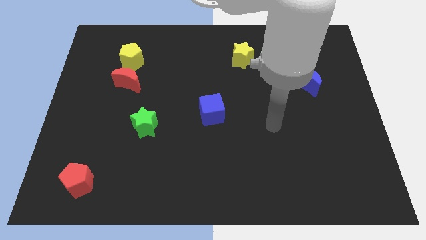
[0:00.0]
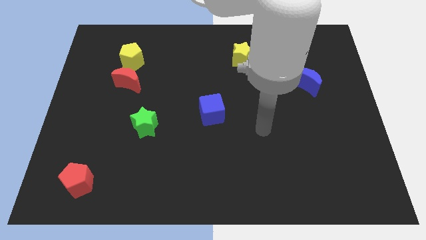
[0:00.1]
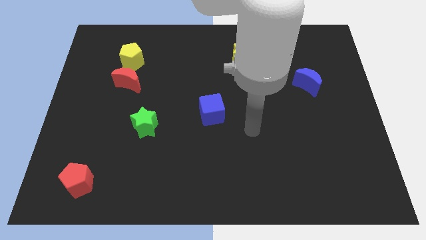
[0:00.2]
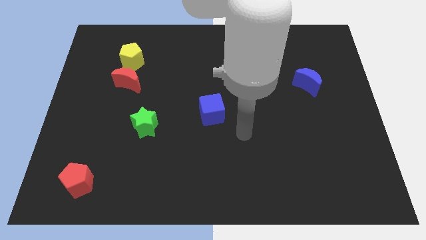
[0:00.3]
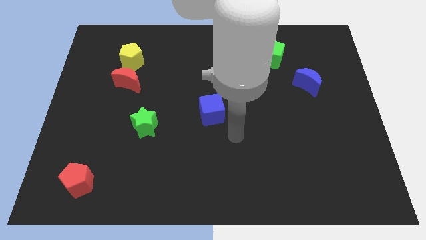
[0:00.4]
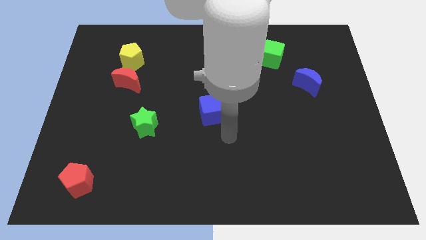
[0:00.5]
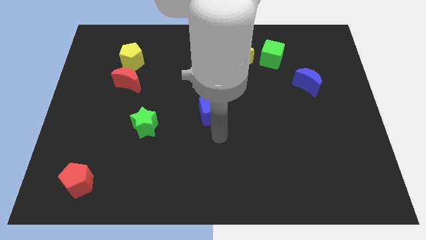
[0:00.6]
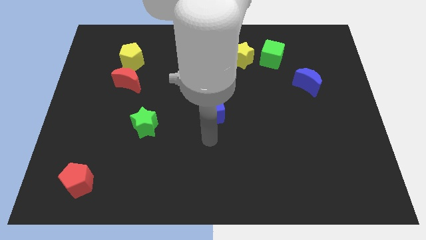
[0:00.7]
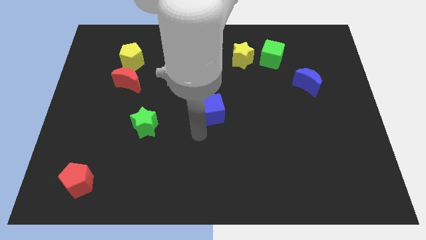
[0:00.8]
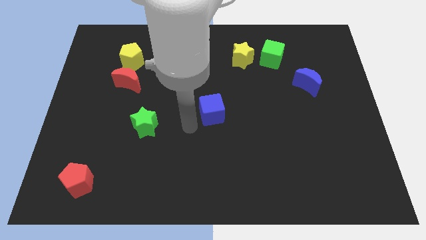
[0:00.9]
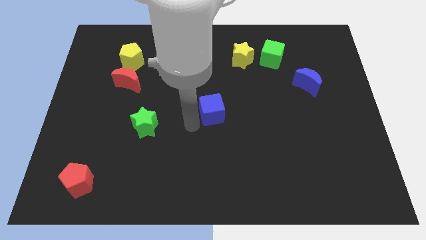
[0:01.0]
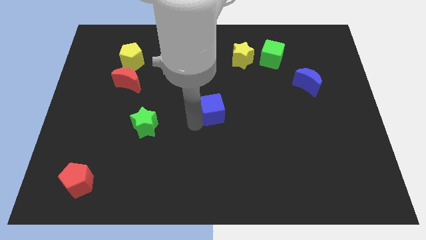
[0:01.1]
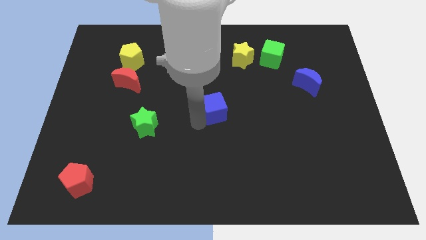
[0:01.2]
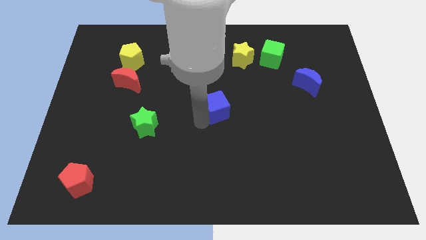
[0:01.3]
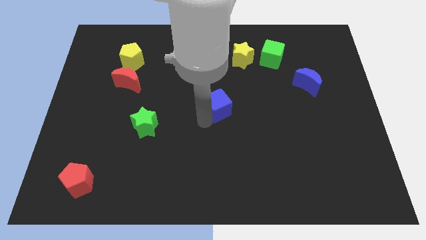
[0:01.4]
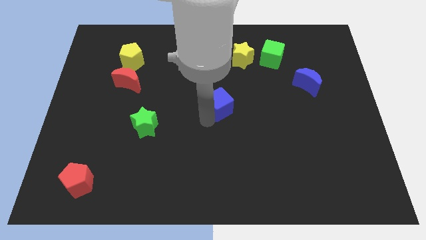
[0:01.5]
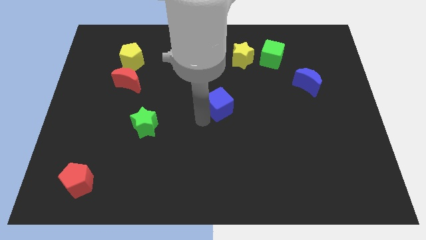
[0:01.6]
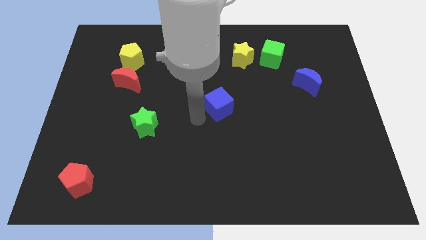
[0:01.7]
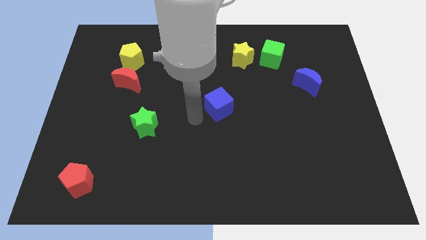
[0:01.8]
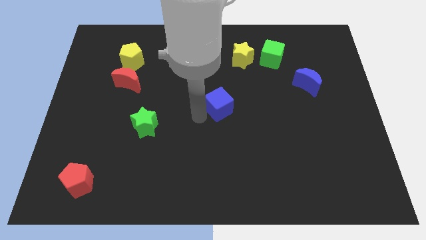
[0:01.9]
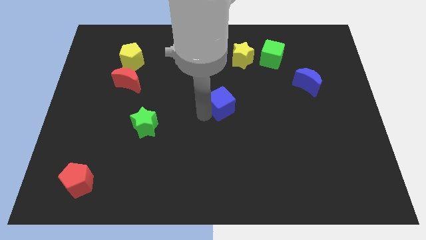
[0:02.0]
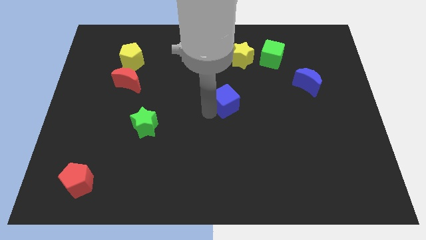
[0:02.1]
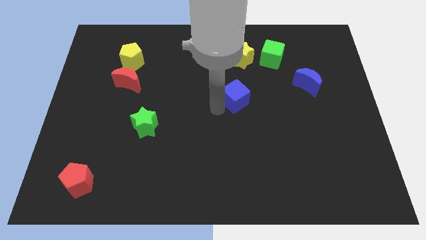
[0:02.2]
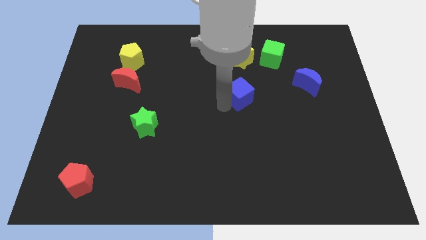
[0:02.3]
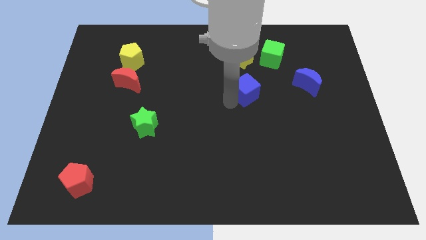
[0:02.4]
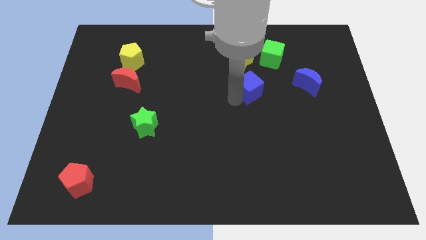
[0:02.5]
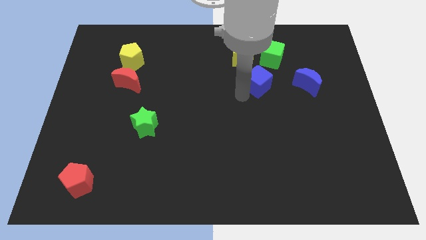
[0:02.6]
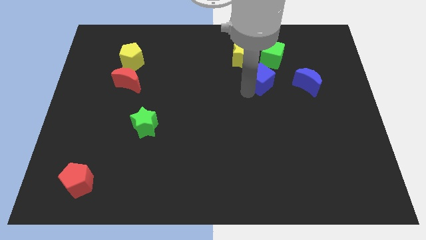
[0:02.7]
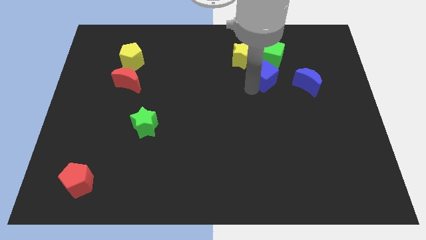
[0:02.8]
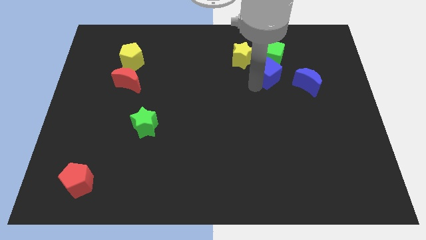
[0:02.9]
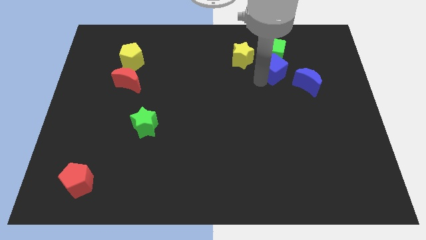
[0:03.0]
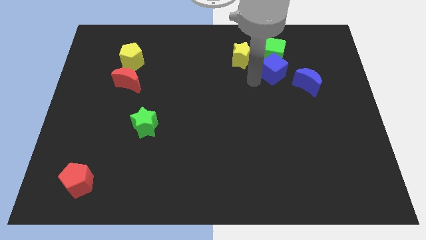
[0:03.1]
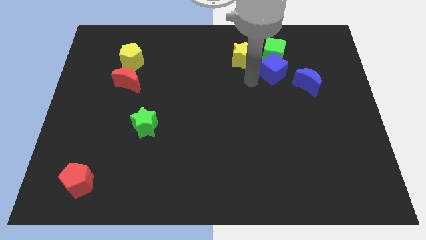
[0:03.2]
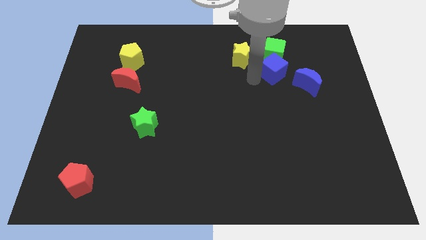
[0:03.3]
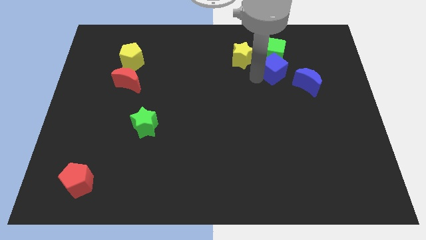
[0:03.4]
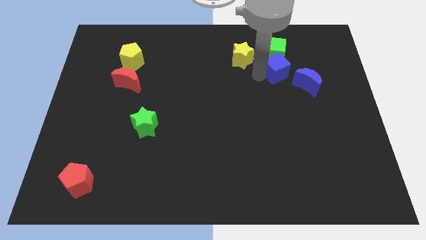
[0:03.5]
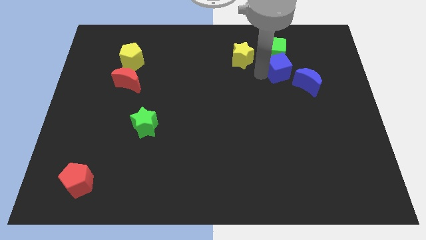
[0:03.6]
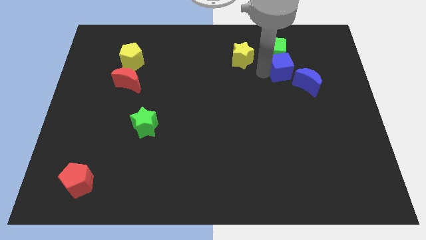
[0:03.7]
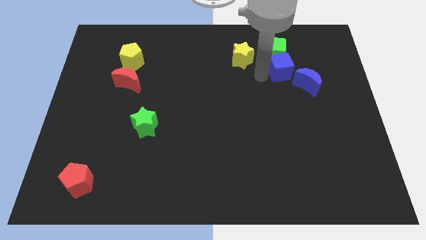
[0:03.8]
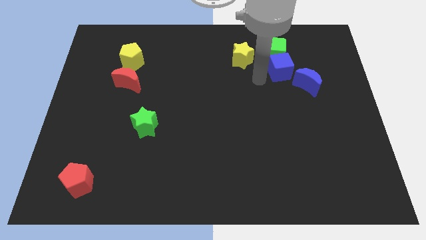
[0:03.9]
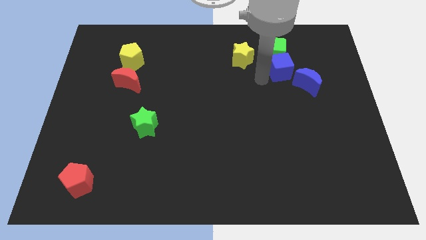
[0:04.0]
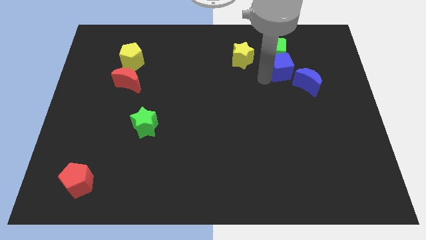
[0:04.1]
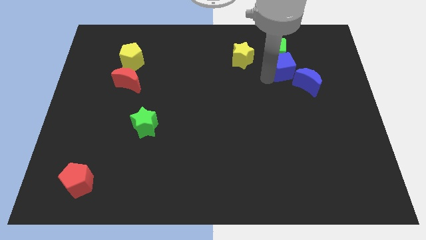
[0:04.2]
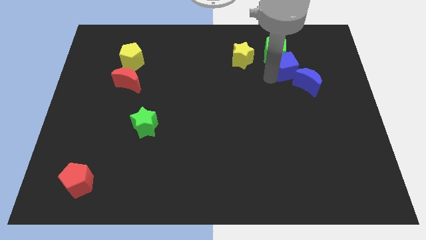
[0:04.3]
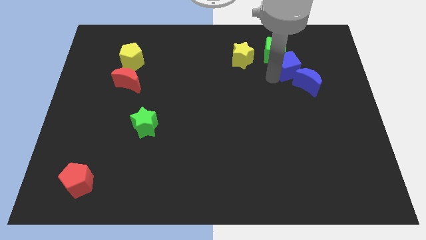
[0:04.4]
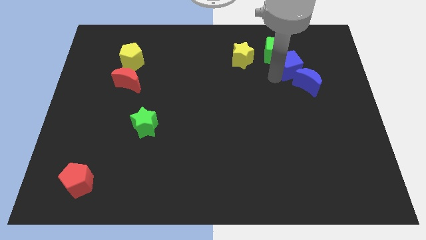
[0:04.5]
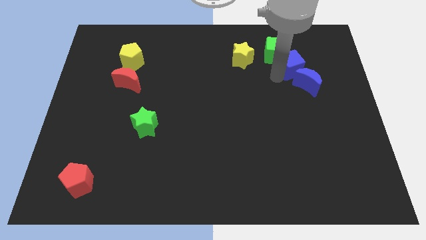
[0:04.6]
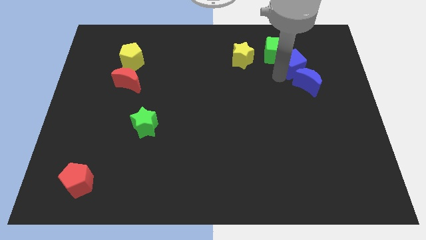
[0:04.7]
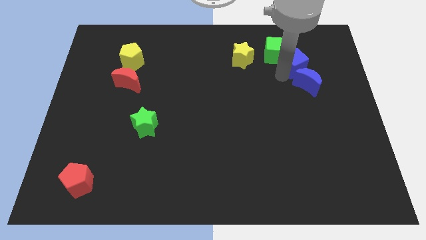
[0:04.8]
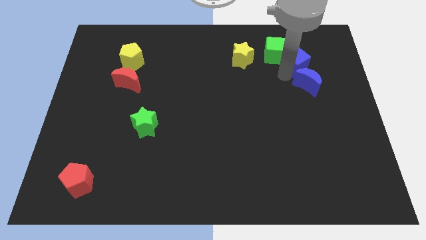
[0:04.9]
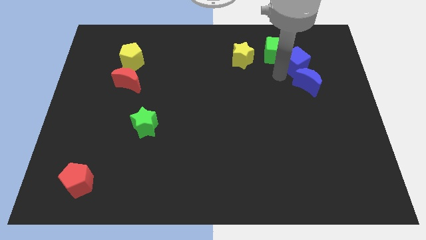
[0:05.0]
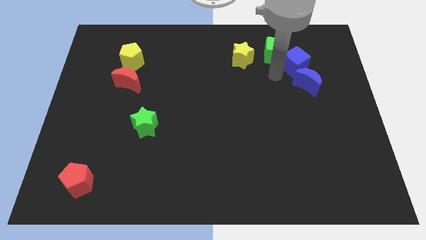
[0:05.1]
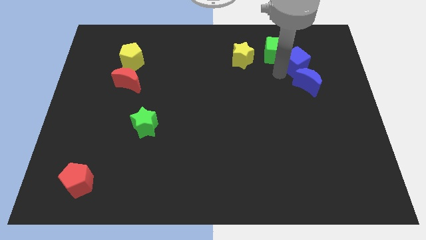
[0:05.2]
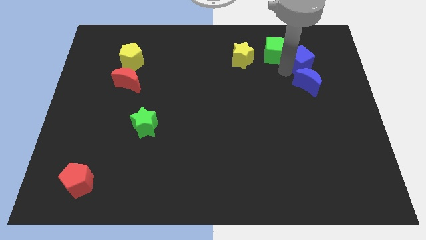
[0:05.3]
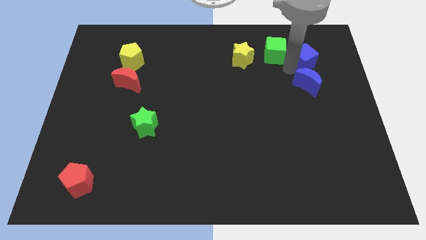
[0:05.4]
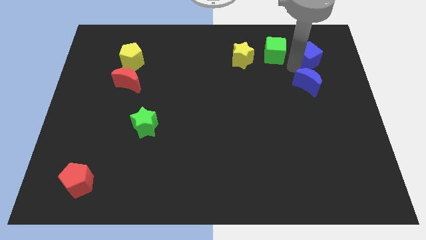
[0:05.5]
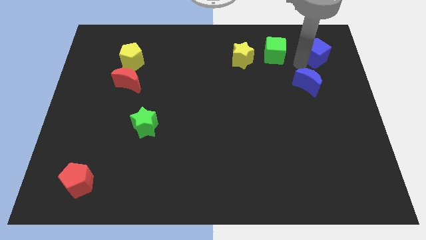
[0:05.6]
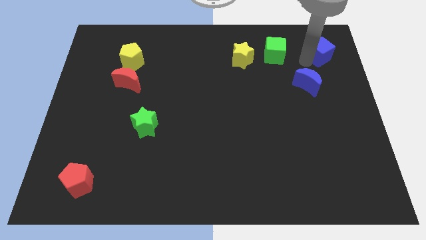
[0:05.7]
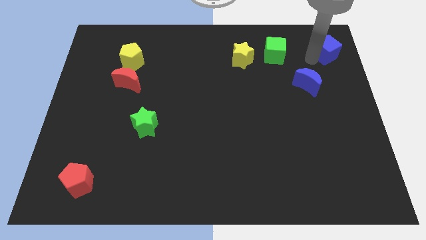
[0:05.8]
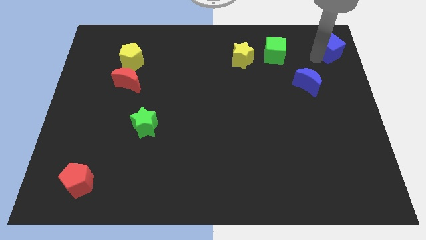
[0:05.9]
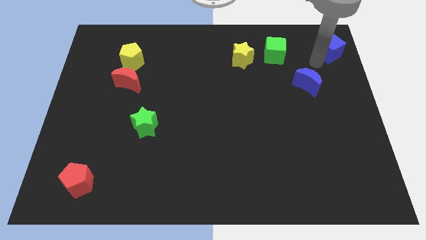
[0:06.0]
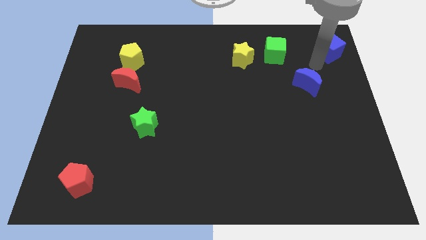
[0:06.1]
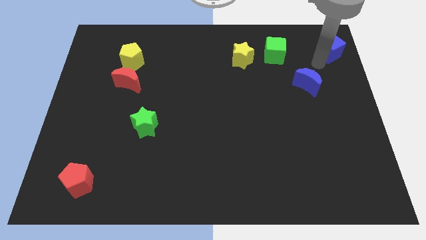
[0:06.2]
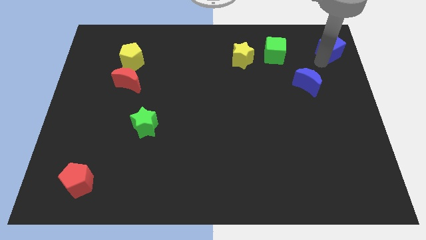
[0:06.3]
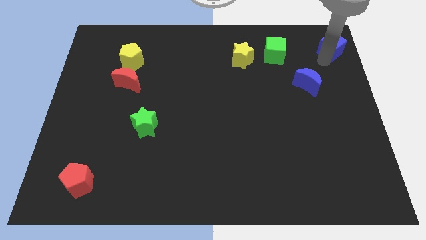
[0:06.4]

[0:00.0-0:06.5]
move the blue cube to the top right corner

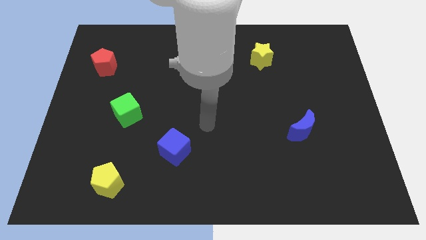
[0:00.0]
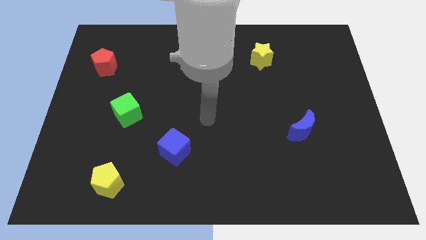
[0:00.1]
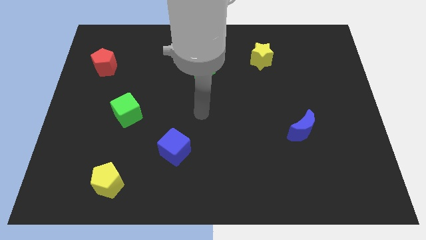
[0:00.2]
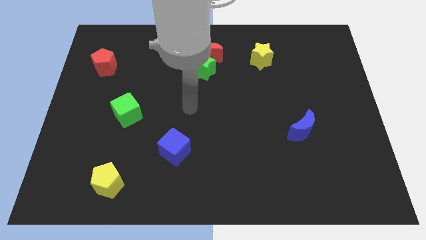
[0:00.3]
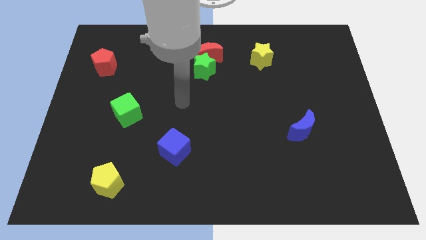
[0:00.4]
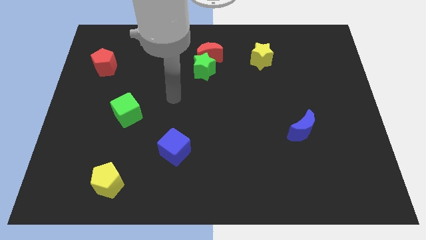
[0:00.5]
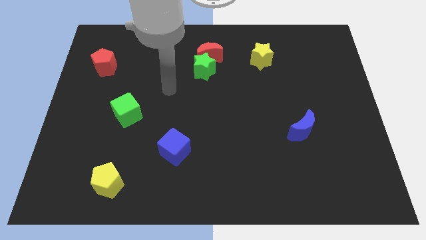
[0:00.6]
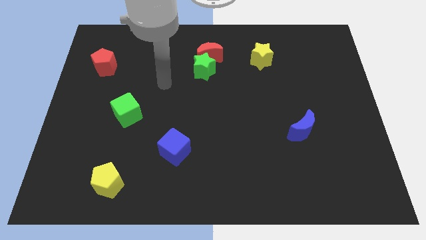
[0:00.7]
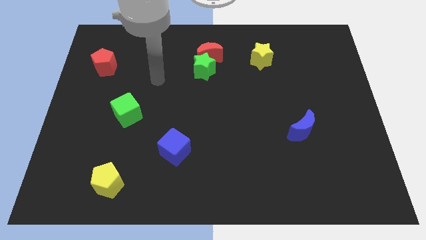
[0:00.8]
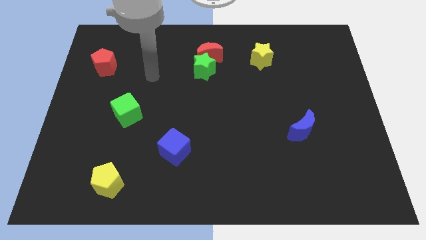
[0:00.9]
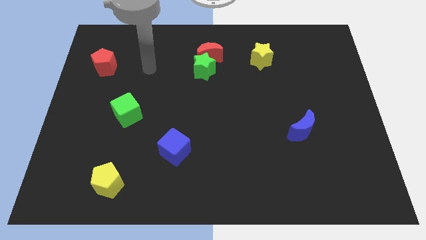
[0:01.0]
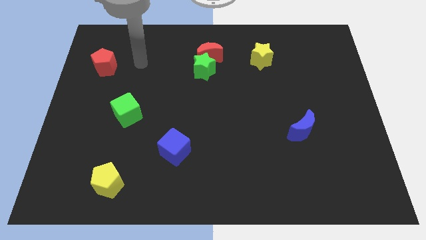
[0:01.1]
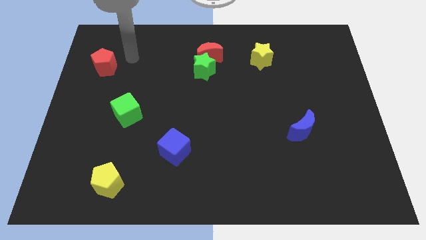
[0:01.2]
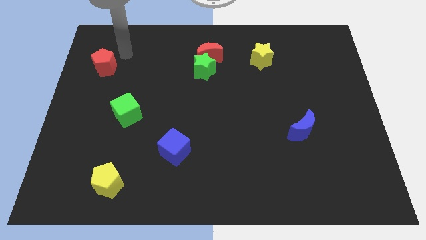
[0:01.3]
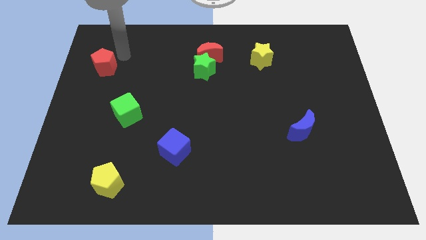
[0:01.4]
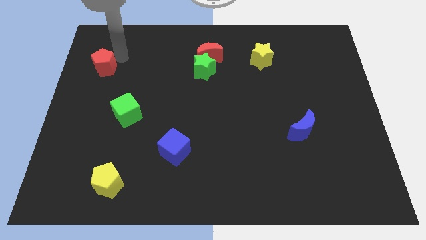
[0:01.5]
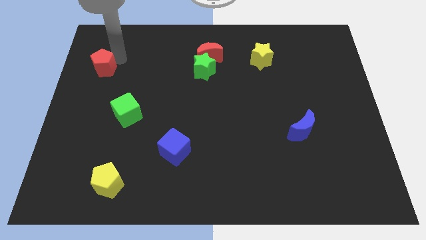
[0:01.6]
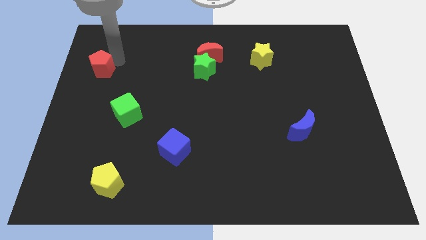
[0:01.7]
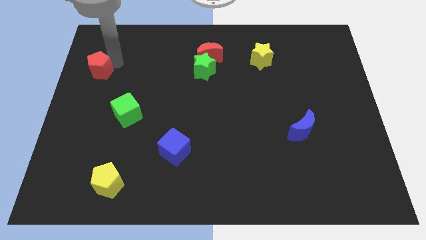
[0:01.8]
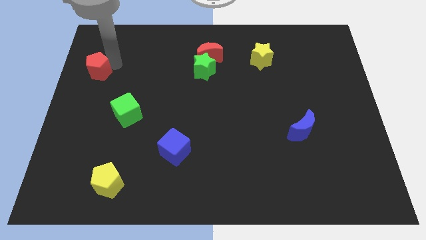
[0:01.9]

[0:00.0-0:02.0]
move the red pentagon to the left side
